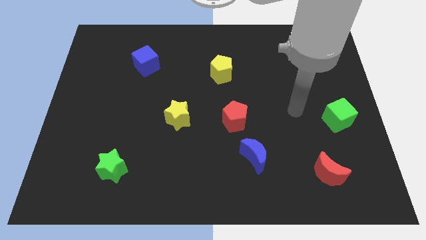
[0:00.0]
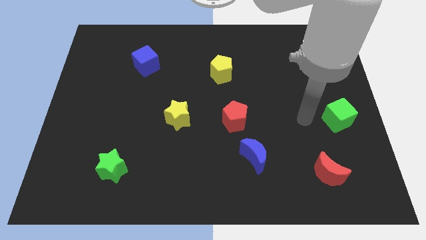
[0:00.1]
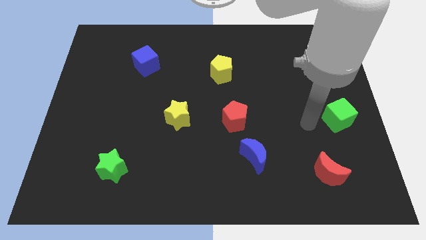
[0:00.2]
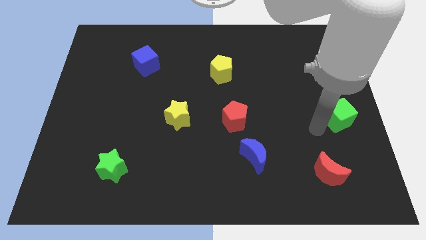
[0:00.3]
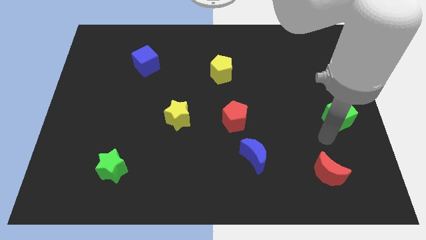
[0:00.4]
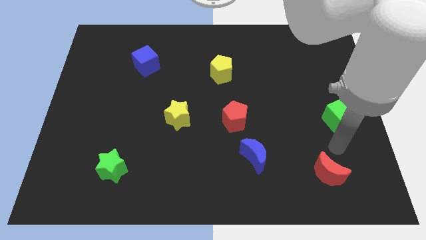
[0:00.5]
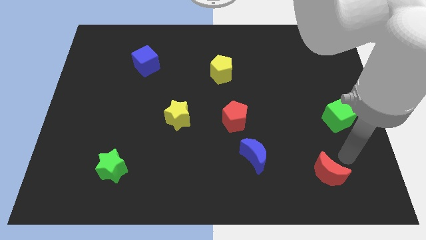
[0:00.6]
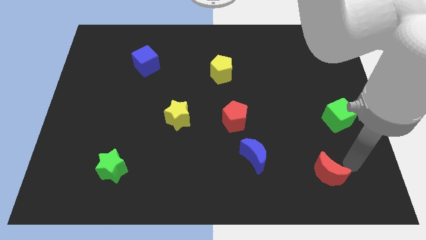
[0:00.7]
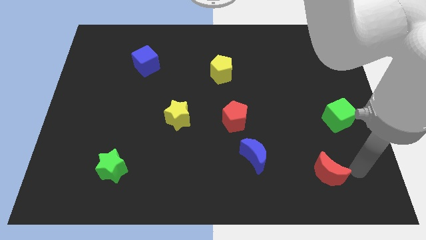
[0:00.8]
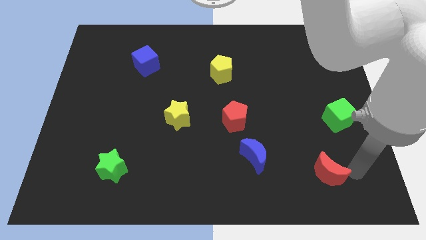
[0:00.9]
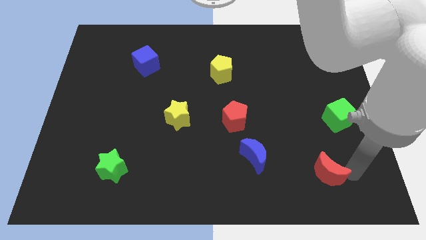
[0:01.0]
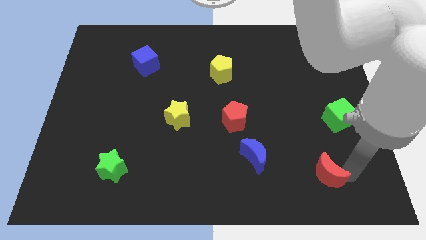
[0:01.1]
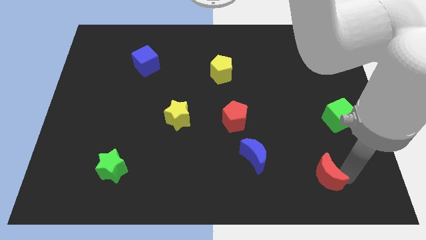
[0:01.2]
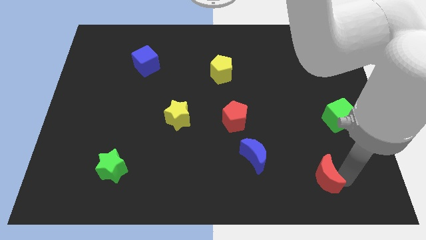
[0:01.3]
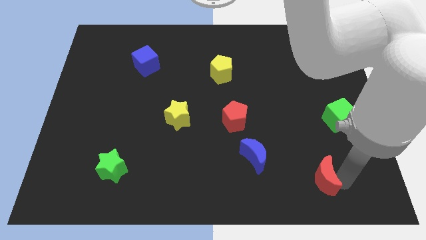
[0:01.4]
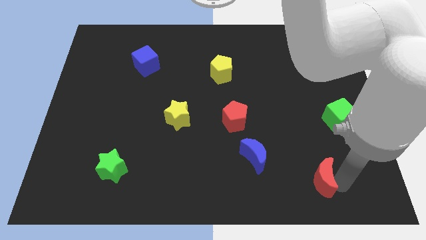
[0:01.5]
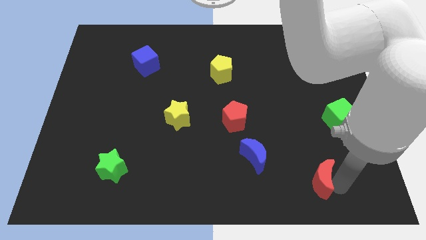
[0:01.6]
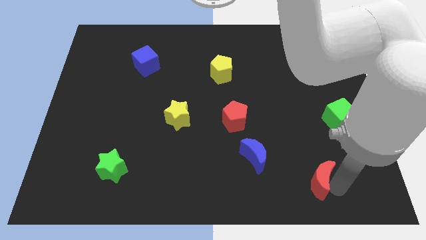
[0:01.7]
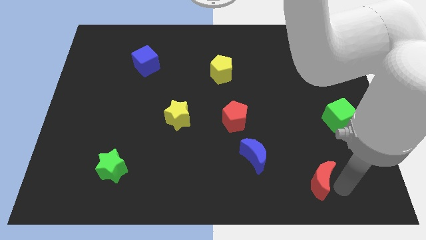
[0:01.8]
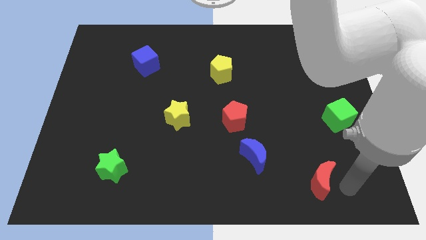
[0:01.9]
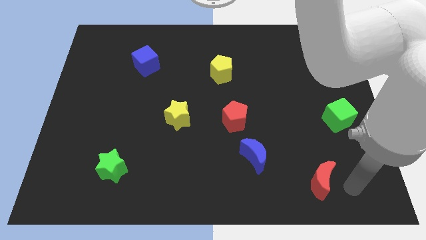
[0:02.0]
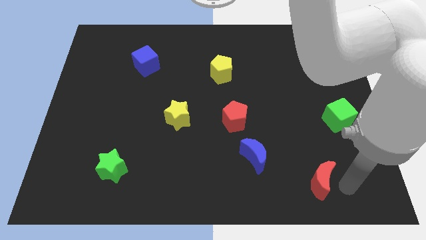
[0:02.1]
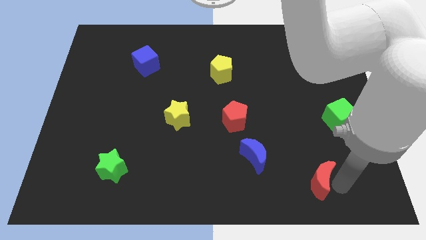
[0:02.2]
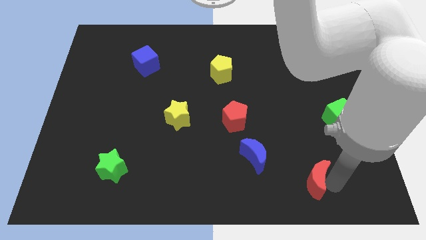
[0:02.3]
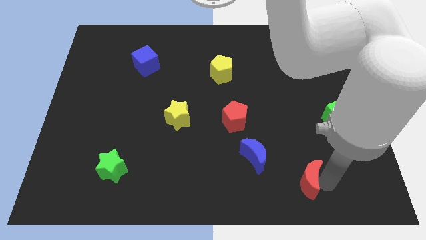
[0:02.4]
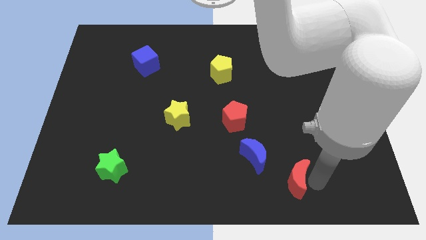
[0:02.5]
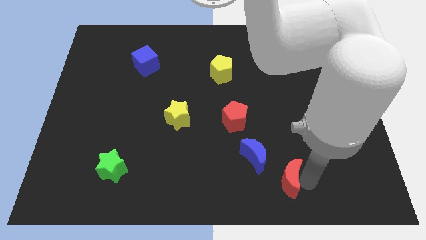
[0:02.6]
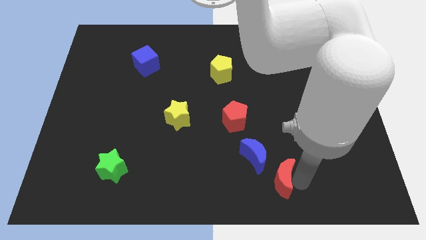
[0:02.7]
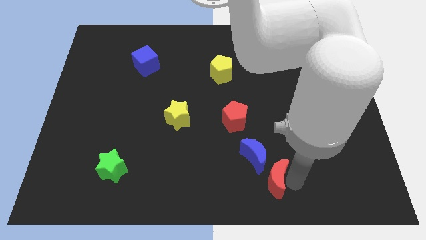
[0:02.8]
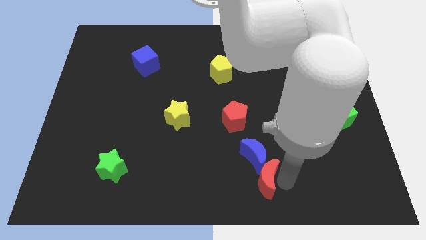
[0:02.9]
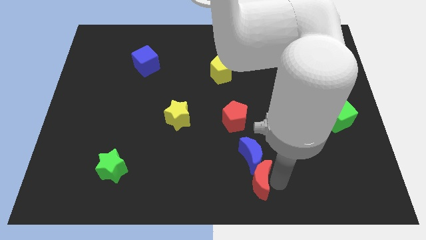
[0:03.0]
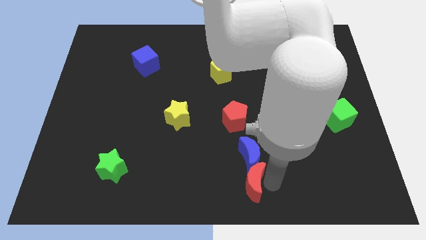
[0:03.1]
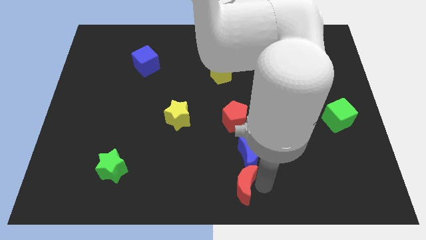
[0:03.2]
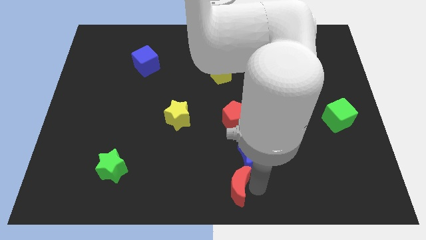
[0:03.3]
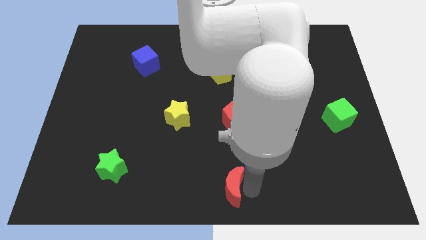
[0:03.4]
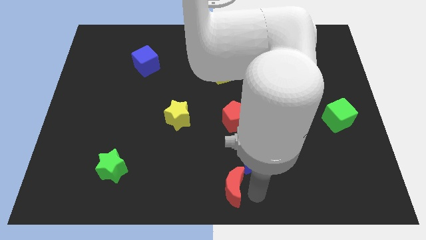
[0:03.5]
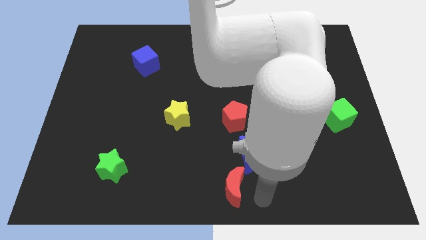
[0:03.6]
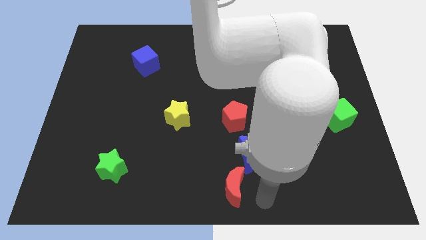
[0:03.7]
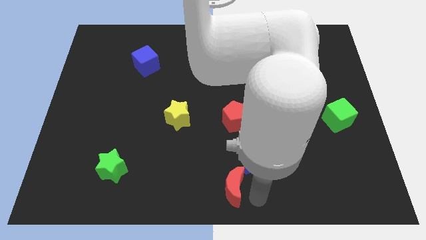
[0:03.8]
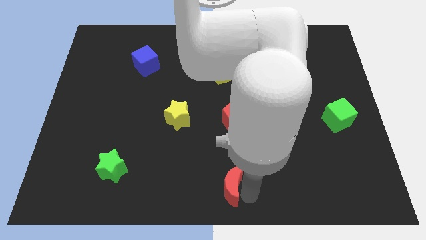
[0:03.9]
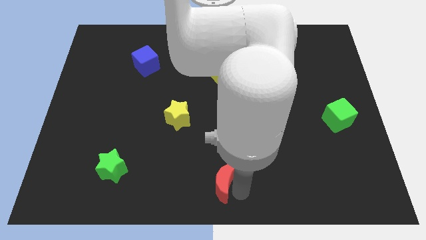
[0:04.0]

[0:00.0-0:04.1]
move the red moon to the left

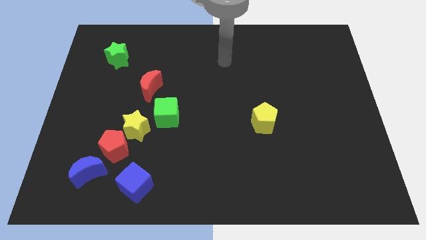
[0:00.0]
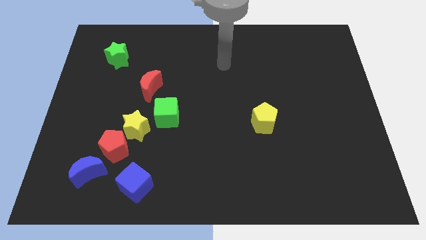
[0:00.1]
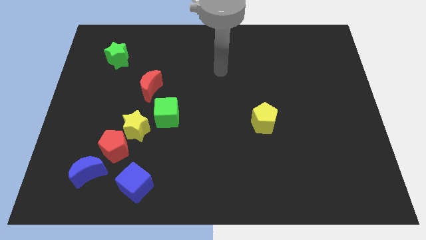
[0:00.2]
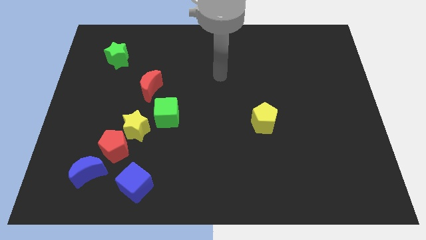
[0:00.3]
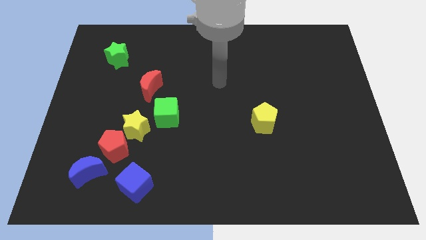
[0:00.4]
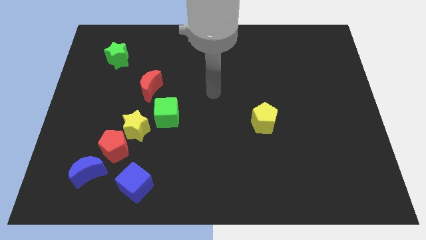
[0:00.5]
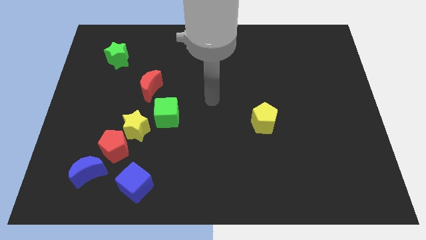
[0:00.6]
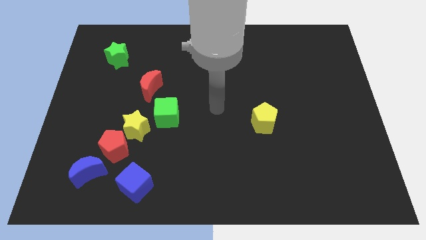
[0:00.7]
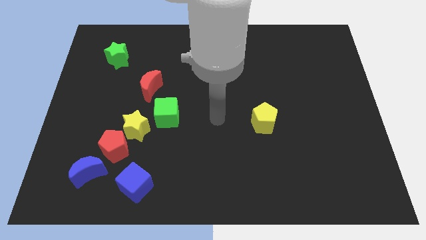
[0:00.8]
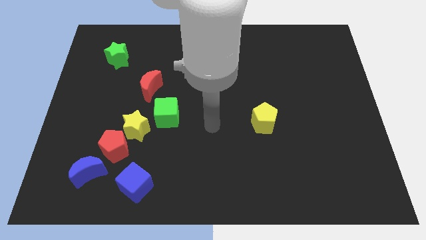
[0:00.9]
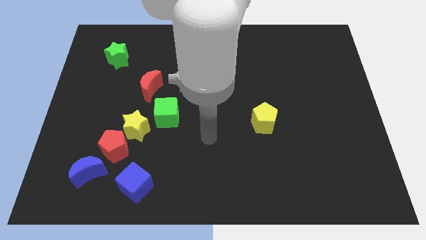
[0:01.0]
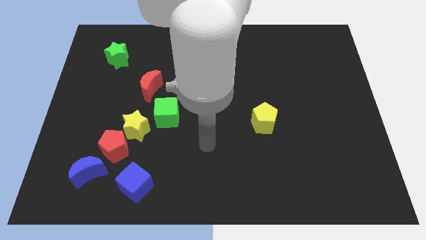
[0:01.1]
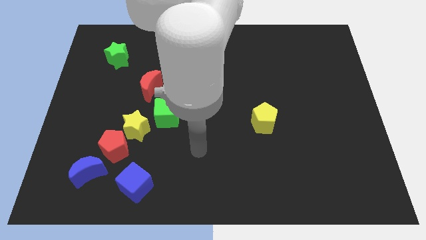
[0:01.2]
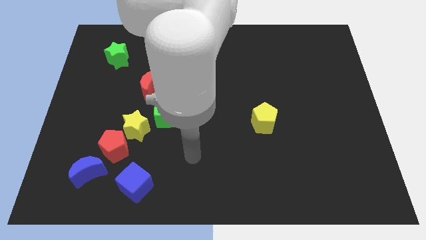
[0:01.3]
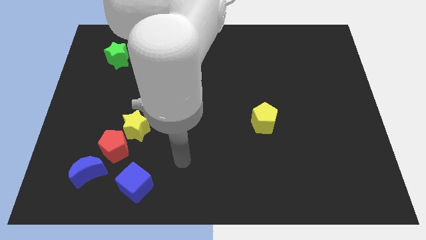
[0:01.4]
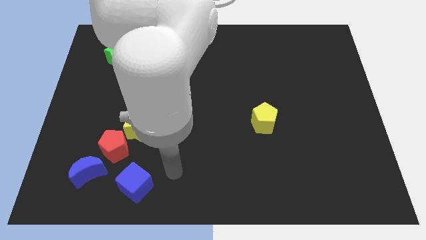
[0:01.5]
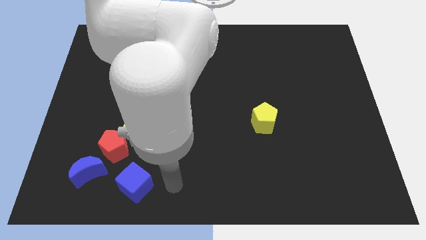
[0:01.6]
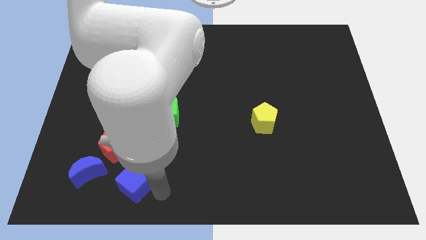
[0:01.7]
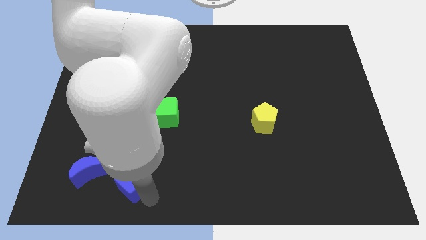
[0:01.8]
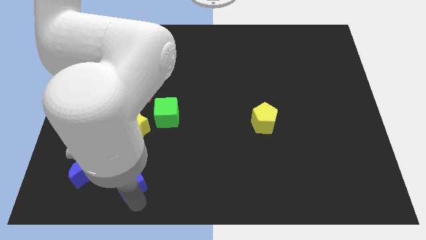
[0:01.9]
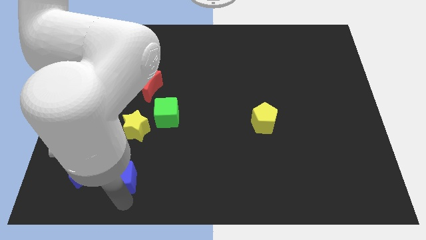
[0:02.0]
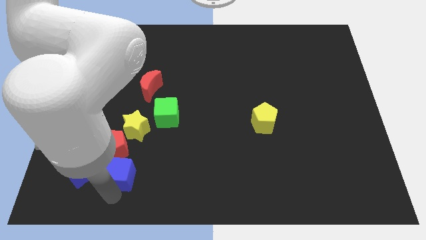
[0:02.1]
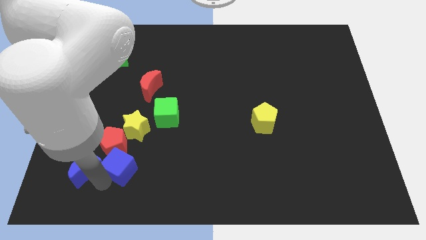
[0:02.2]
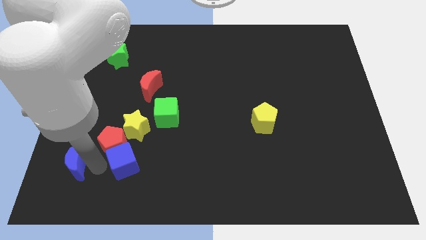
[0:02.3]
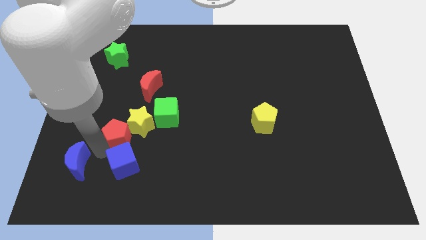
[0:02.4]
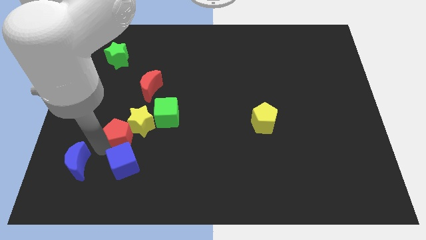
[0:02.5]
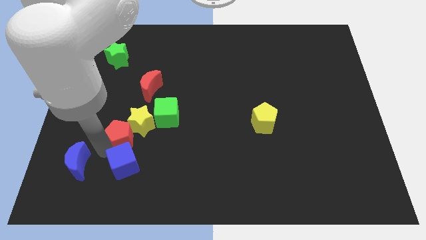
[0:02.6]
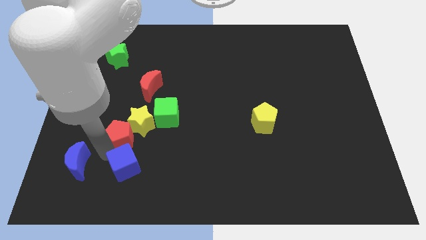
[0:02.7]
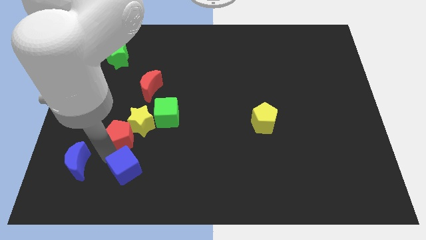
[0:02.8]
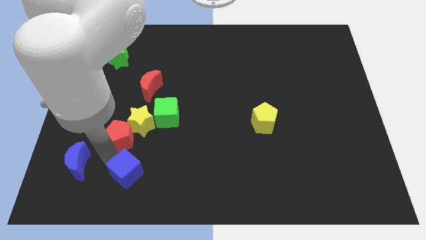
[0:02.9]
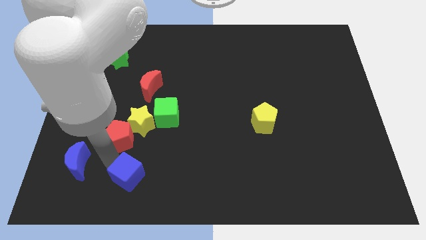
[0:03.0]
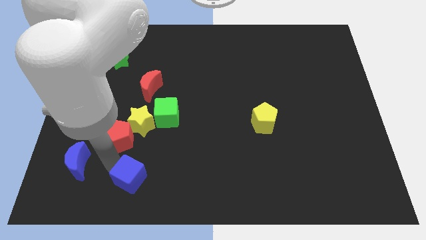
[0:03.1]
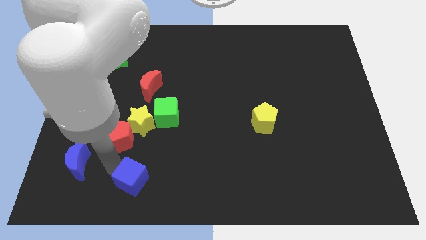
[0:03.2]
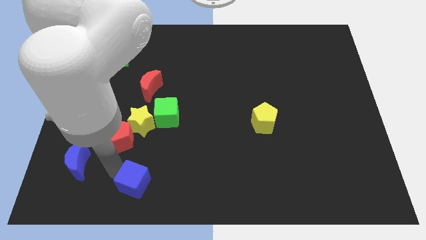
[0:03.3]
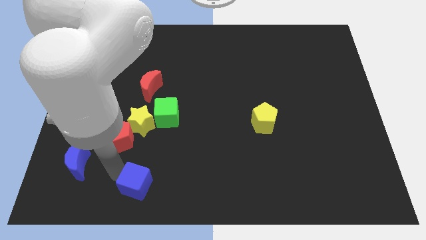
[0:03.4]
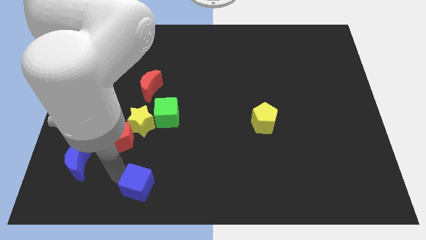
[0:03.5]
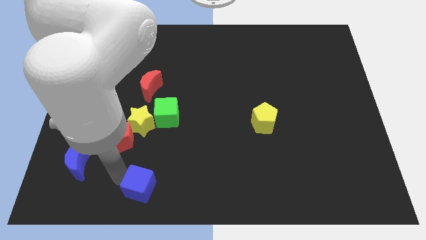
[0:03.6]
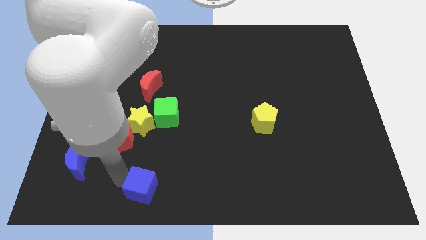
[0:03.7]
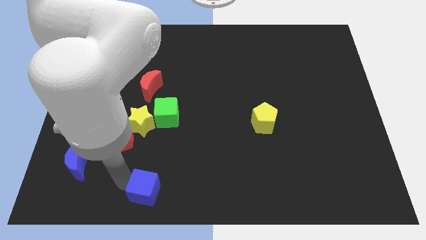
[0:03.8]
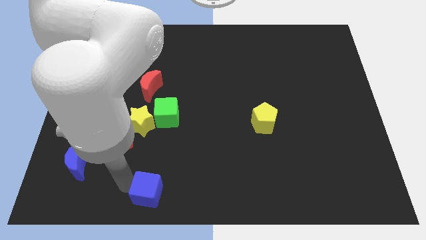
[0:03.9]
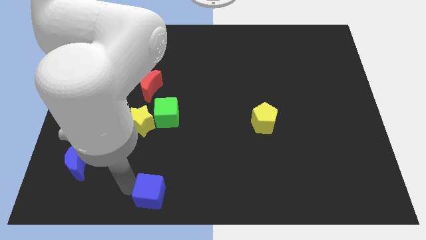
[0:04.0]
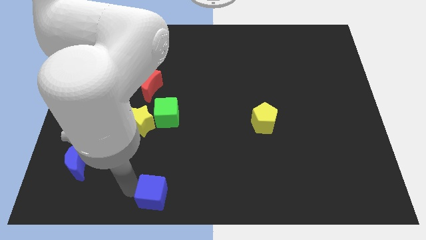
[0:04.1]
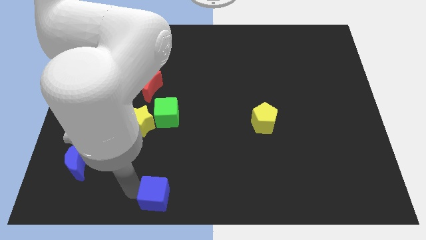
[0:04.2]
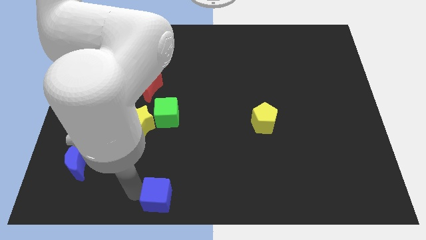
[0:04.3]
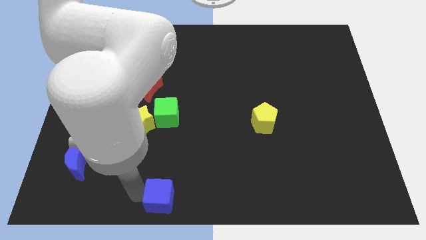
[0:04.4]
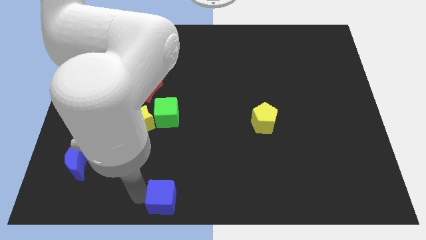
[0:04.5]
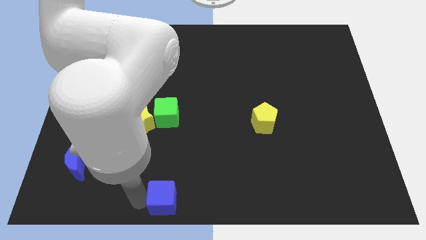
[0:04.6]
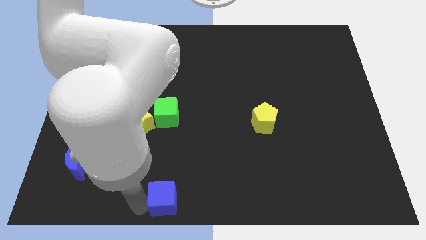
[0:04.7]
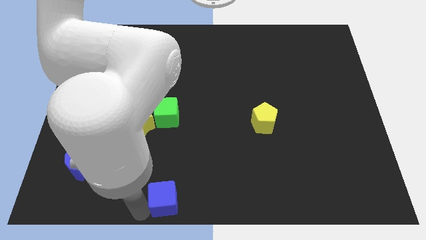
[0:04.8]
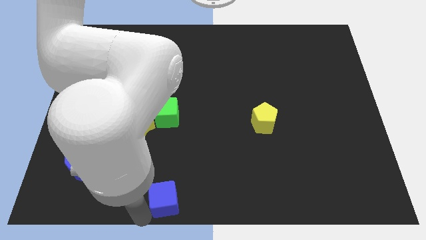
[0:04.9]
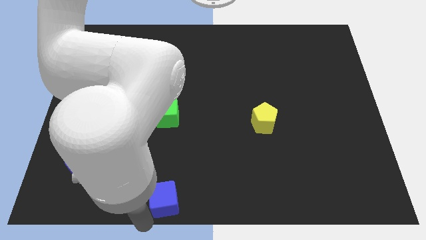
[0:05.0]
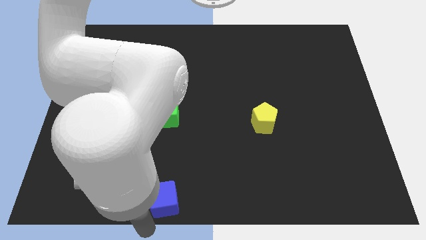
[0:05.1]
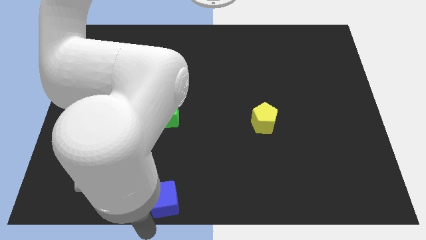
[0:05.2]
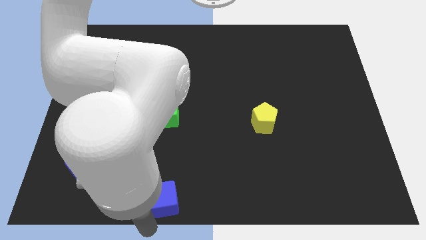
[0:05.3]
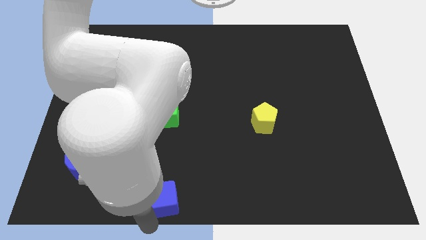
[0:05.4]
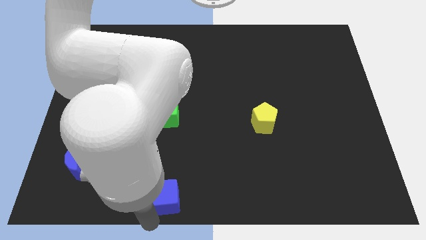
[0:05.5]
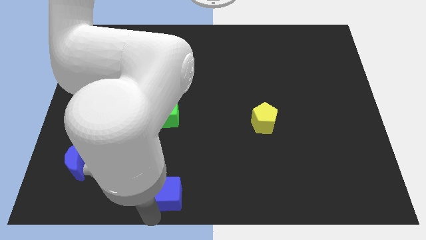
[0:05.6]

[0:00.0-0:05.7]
slightly push the blue cube right
